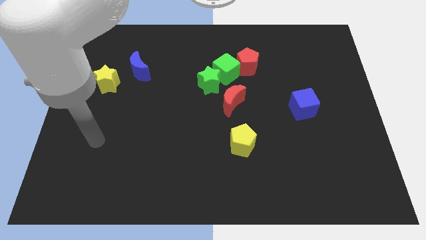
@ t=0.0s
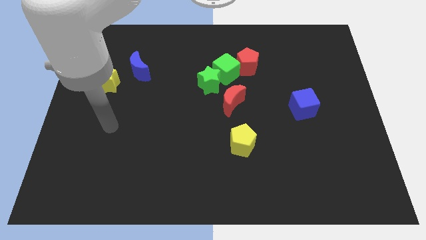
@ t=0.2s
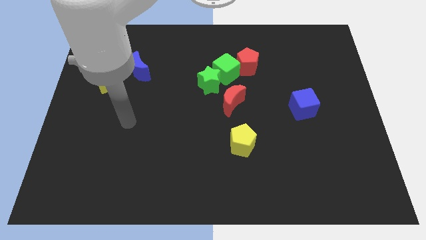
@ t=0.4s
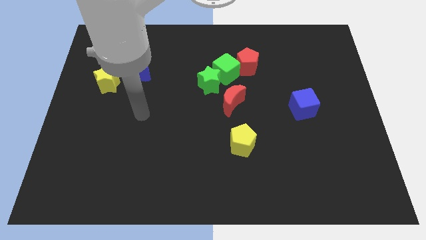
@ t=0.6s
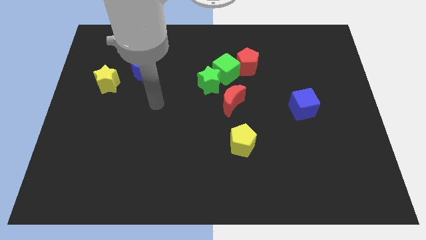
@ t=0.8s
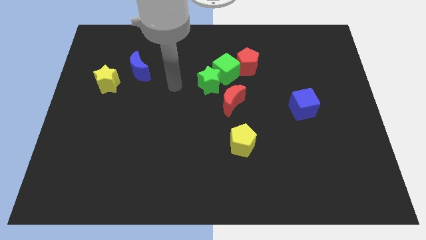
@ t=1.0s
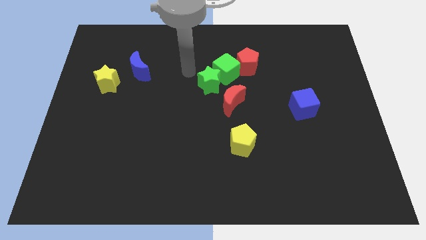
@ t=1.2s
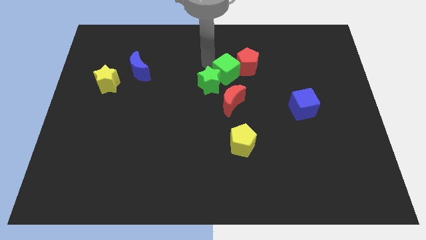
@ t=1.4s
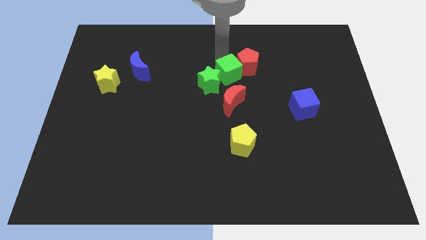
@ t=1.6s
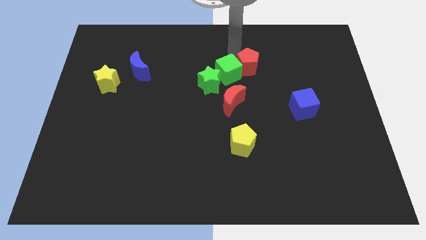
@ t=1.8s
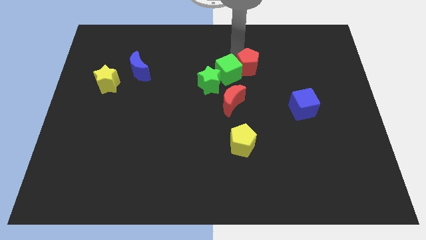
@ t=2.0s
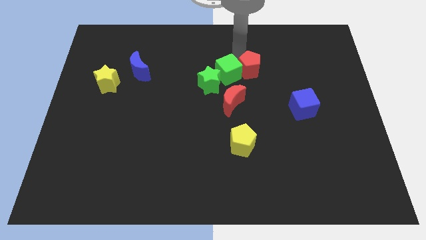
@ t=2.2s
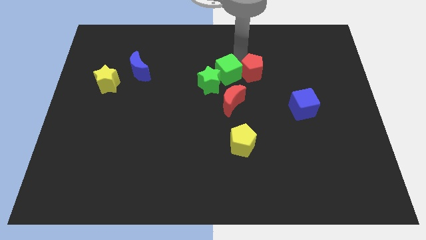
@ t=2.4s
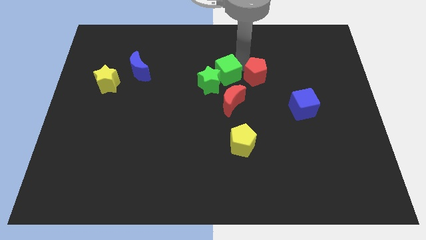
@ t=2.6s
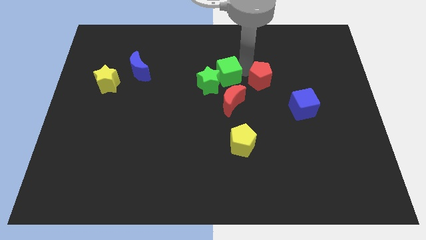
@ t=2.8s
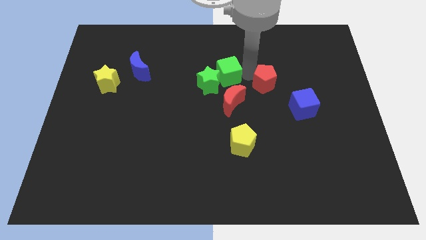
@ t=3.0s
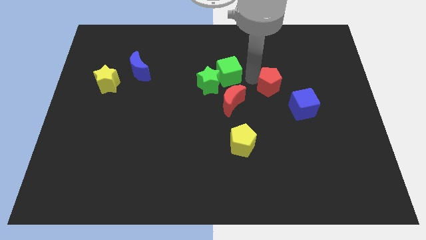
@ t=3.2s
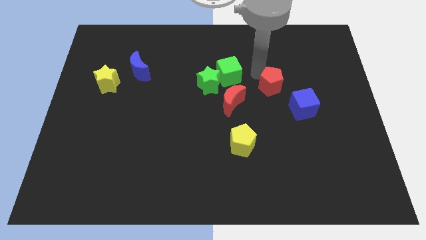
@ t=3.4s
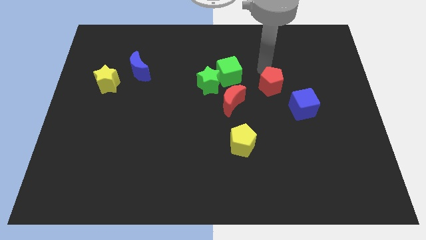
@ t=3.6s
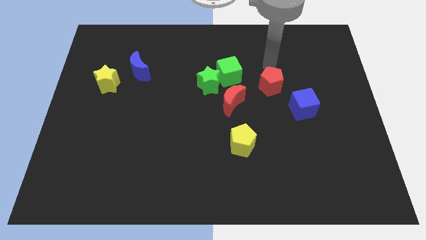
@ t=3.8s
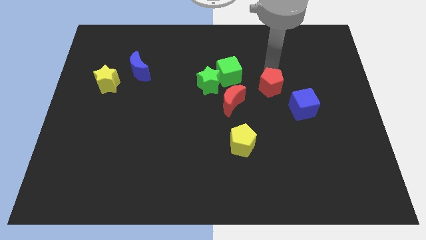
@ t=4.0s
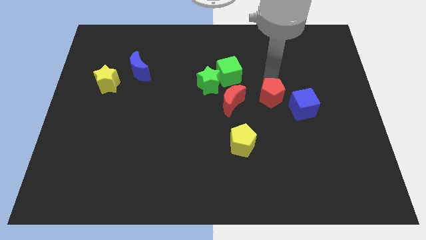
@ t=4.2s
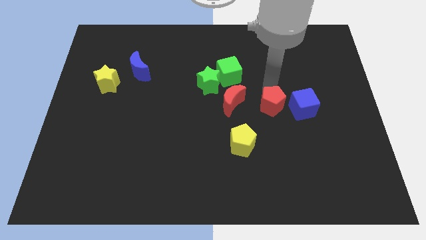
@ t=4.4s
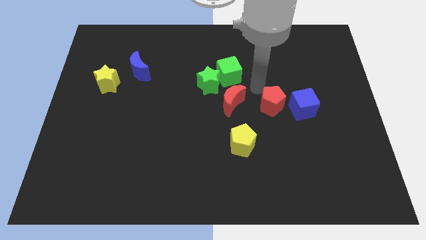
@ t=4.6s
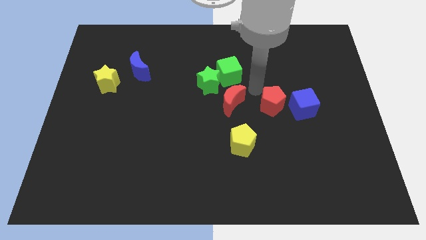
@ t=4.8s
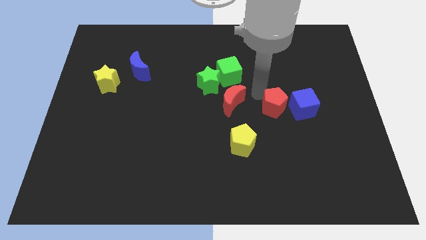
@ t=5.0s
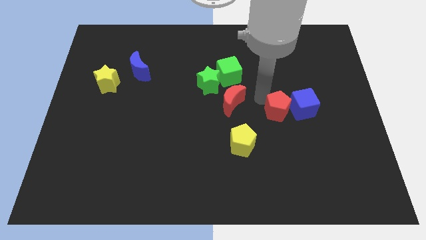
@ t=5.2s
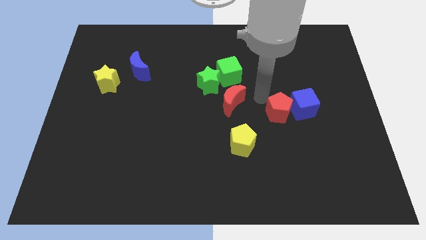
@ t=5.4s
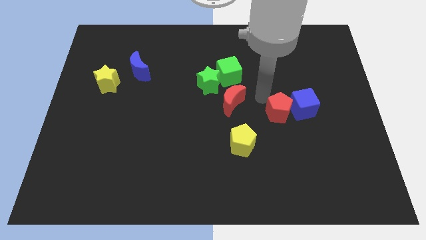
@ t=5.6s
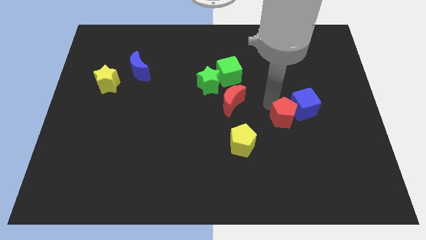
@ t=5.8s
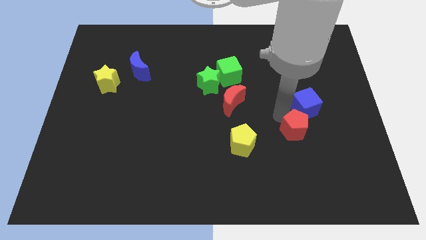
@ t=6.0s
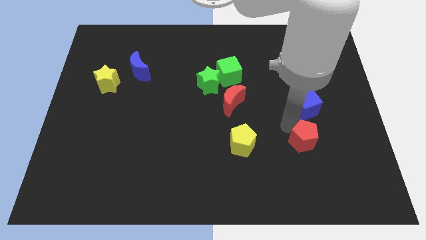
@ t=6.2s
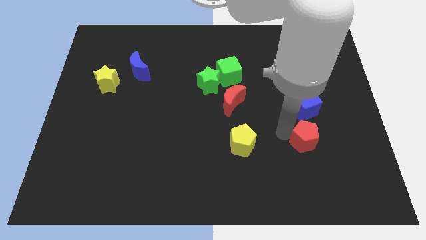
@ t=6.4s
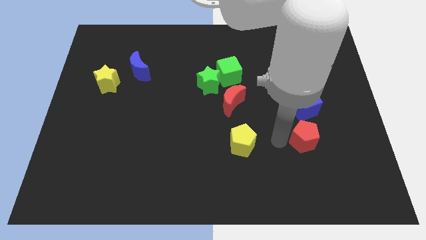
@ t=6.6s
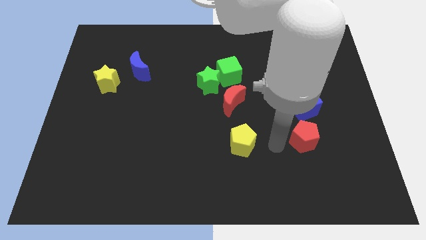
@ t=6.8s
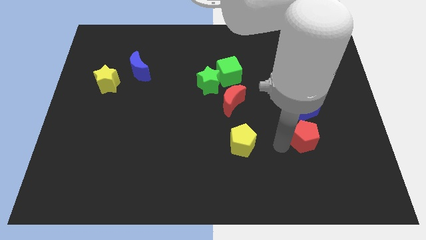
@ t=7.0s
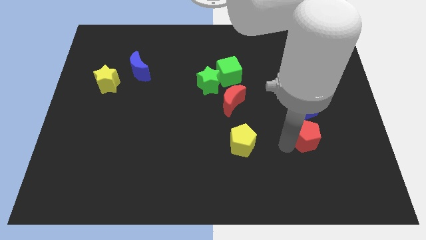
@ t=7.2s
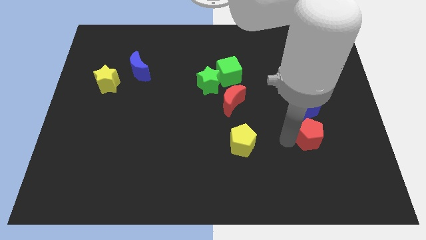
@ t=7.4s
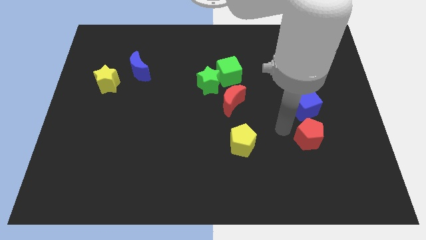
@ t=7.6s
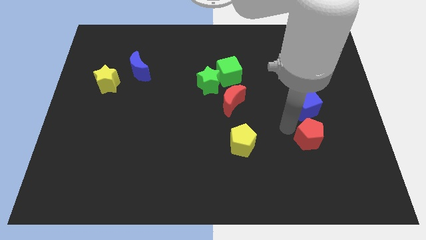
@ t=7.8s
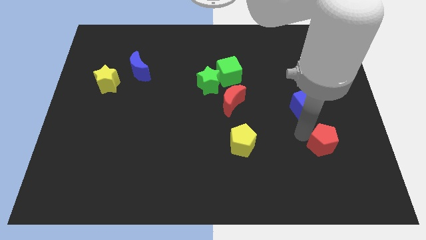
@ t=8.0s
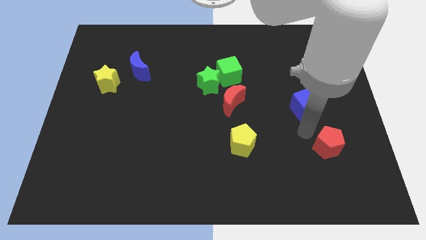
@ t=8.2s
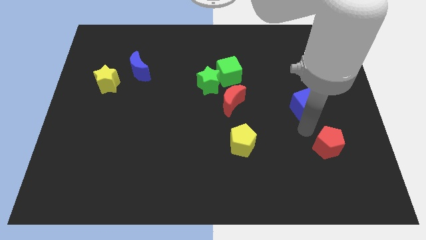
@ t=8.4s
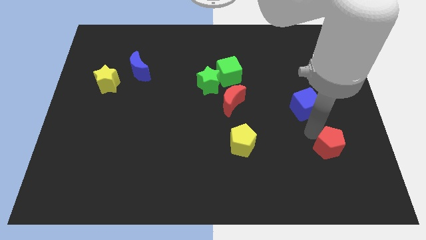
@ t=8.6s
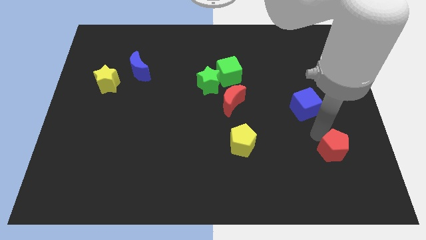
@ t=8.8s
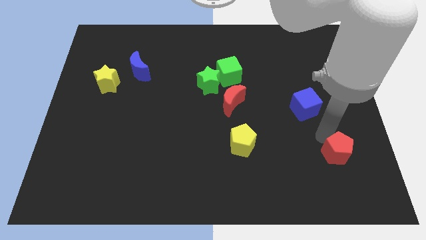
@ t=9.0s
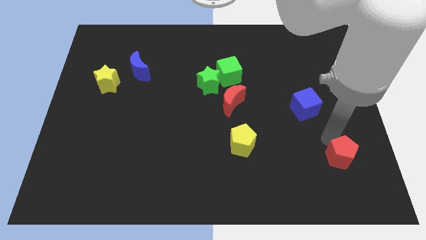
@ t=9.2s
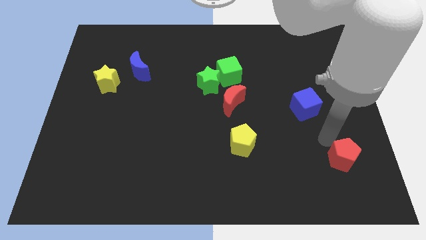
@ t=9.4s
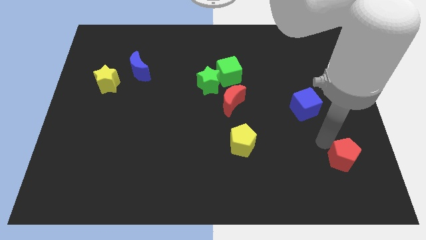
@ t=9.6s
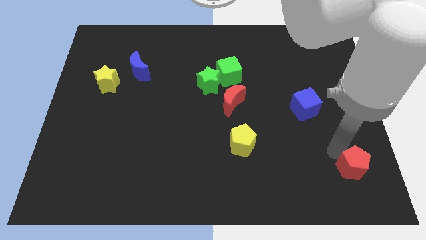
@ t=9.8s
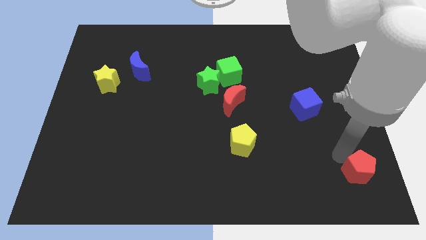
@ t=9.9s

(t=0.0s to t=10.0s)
push the red pentagon to the lower right corner

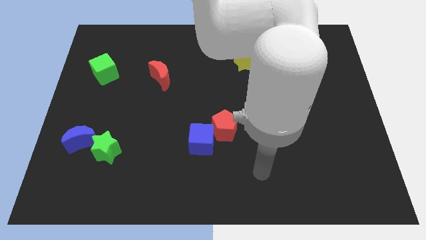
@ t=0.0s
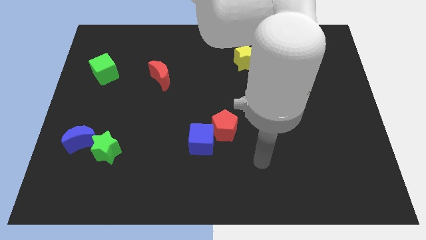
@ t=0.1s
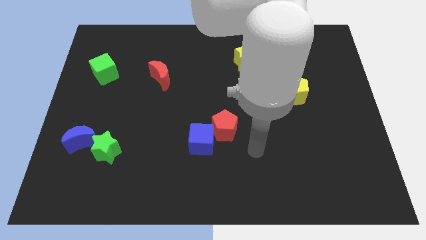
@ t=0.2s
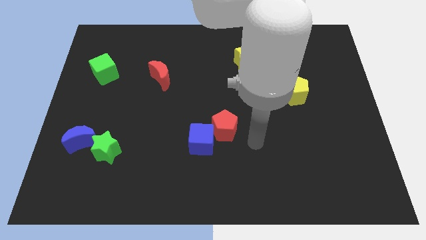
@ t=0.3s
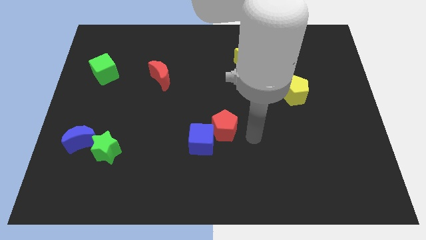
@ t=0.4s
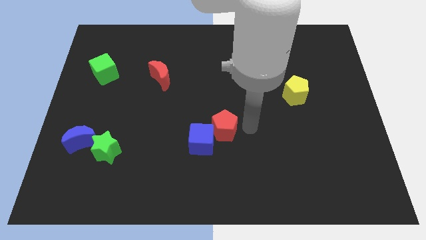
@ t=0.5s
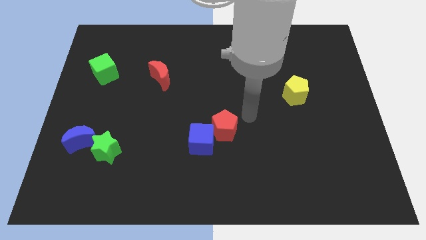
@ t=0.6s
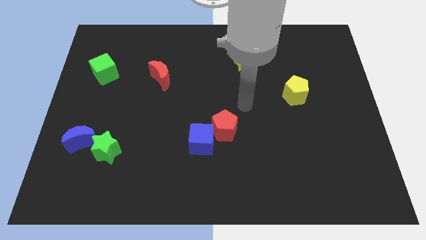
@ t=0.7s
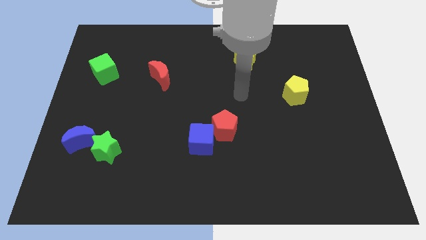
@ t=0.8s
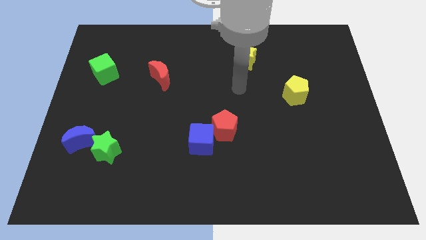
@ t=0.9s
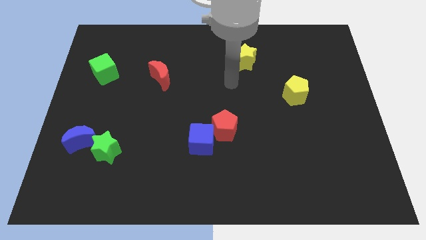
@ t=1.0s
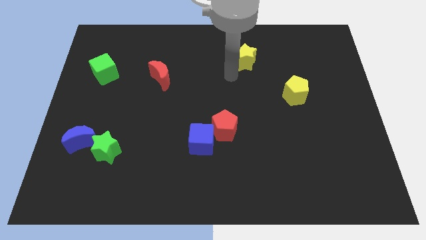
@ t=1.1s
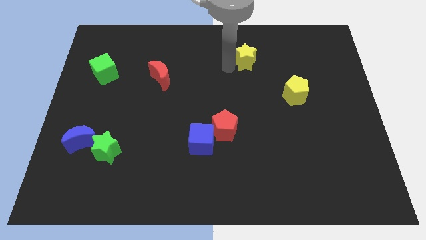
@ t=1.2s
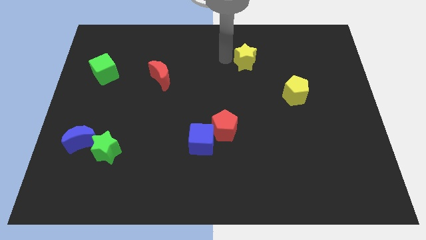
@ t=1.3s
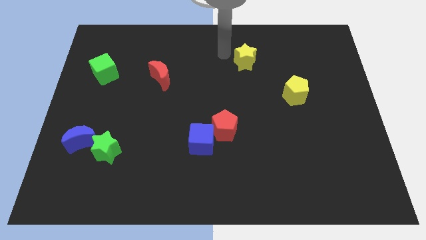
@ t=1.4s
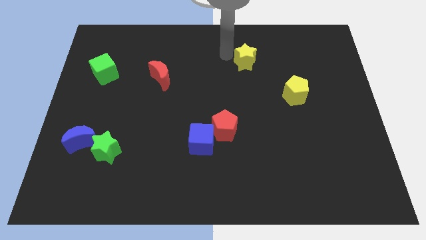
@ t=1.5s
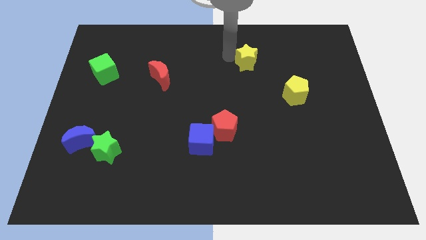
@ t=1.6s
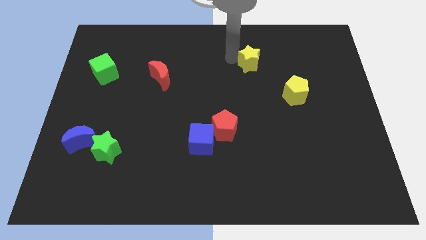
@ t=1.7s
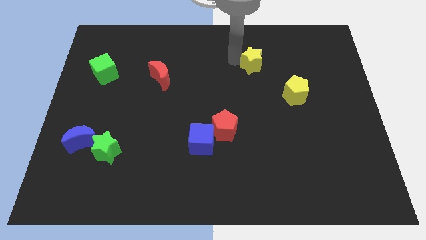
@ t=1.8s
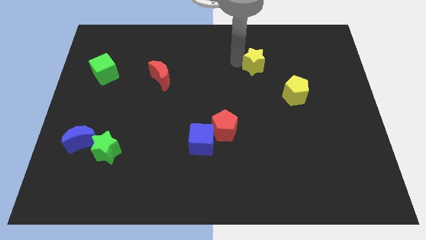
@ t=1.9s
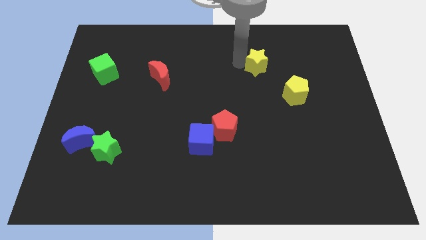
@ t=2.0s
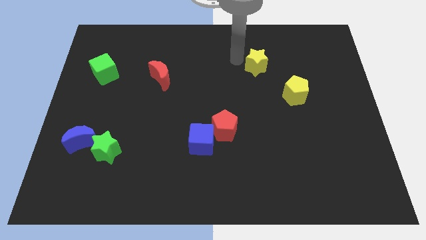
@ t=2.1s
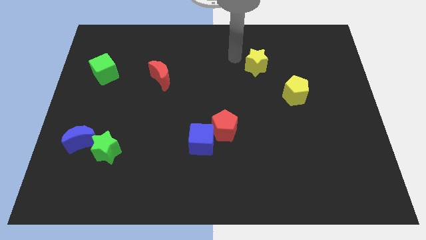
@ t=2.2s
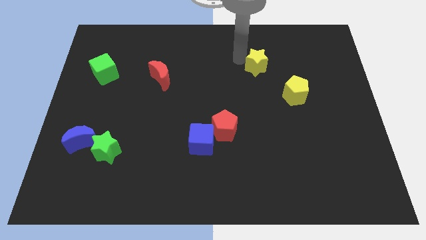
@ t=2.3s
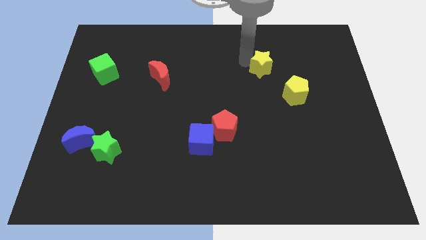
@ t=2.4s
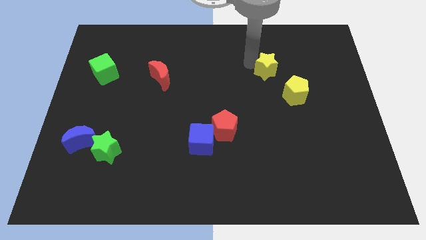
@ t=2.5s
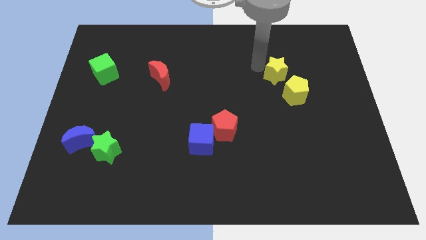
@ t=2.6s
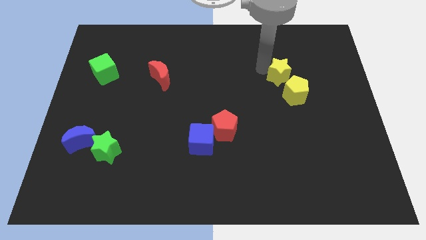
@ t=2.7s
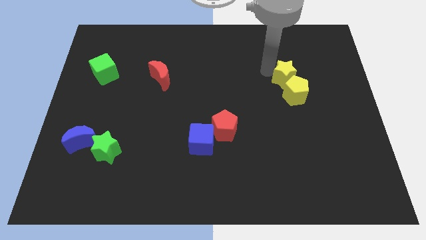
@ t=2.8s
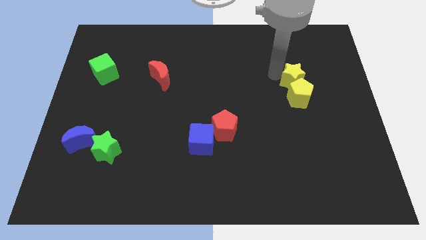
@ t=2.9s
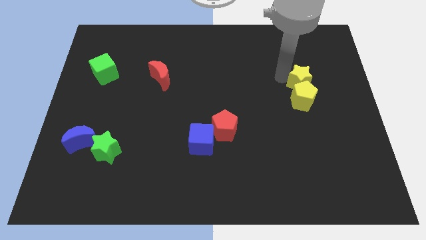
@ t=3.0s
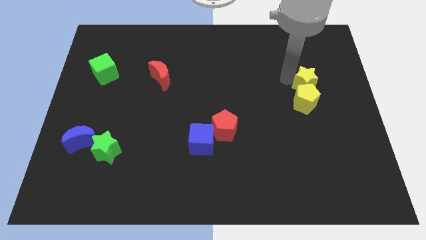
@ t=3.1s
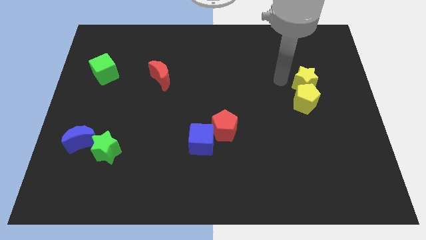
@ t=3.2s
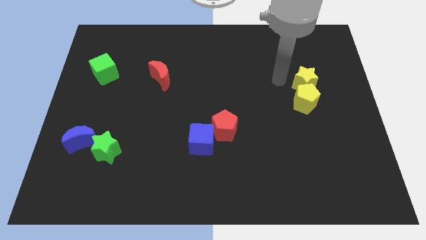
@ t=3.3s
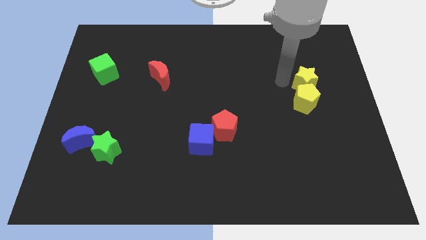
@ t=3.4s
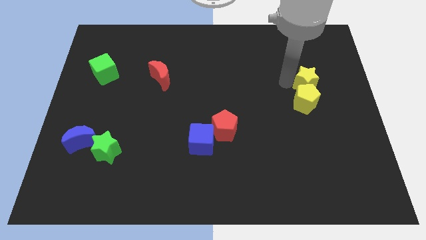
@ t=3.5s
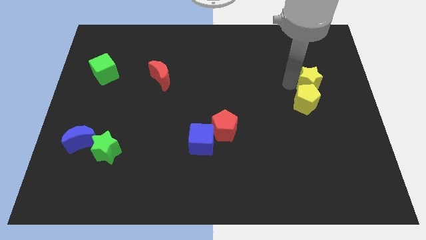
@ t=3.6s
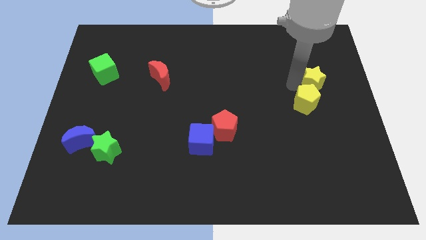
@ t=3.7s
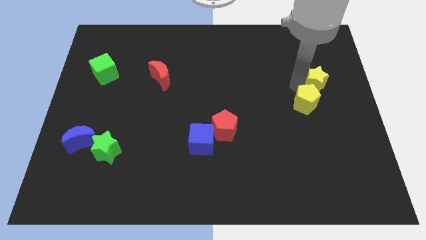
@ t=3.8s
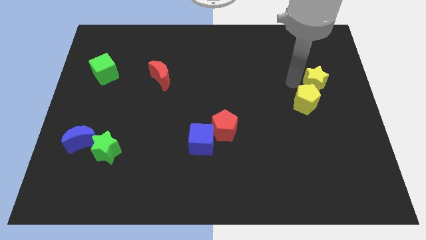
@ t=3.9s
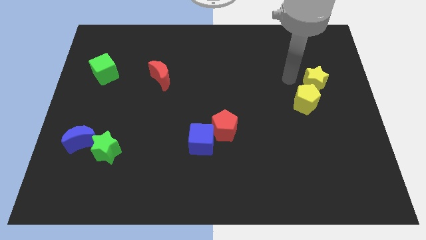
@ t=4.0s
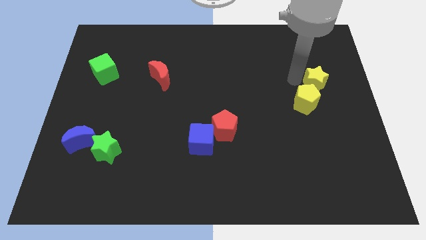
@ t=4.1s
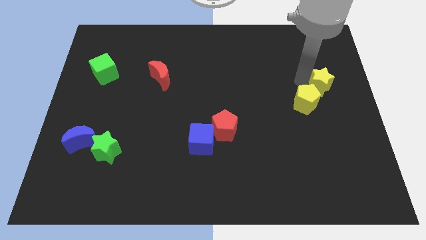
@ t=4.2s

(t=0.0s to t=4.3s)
push the yellow star to the right side
